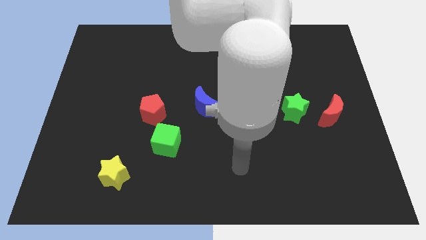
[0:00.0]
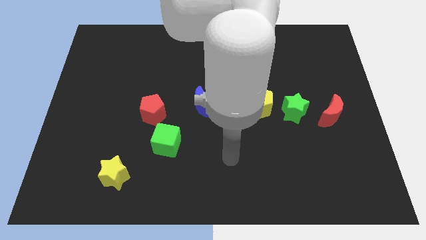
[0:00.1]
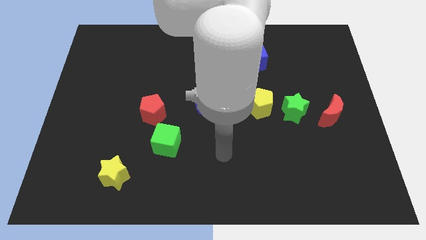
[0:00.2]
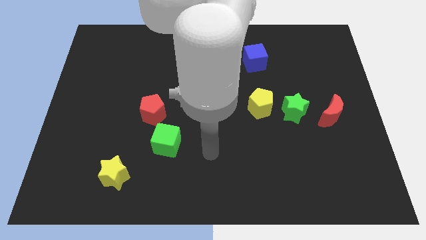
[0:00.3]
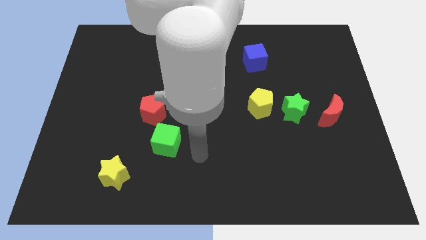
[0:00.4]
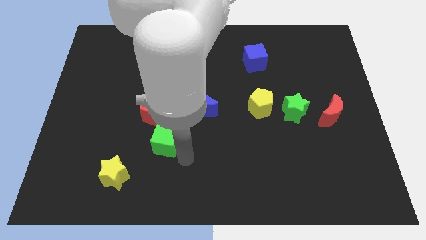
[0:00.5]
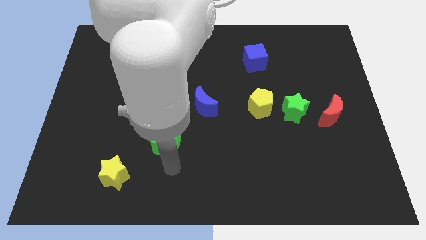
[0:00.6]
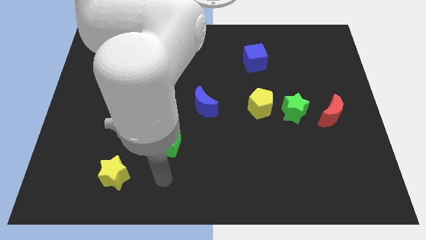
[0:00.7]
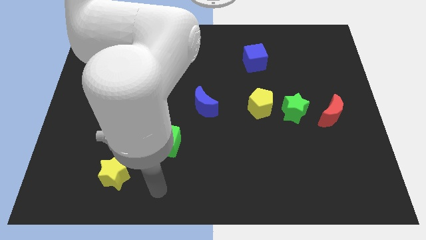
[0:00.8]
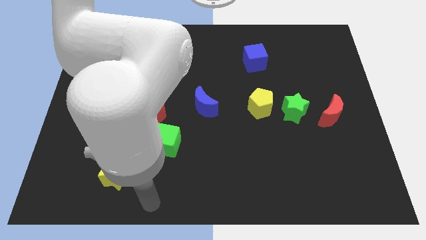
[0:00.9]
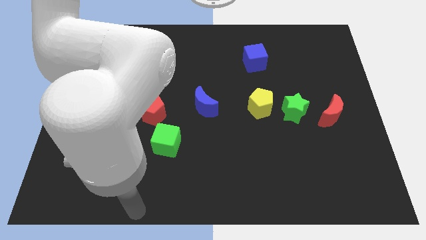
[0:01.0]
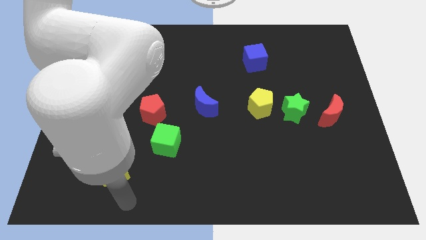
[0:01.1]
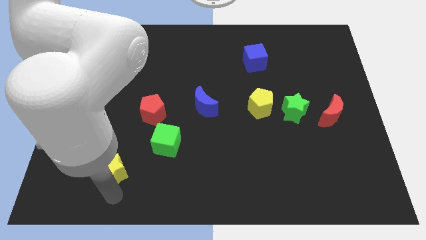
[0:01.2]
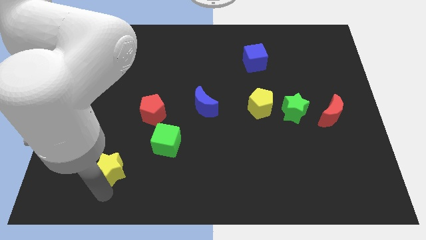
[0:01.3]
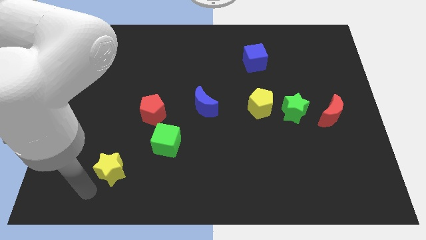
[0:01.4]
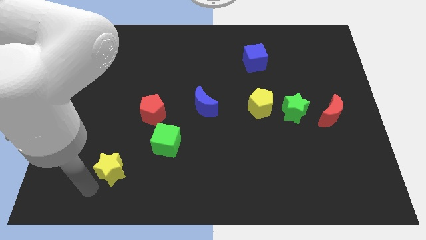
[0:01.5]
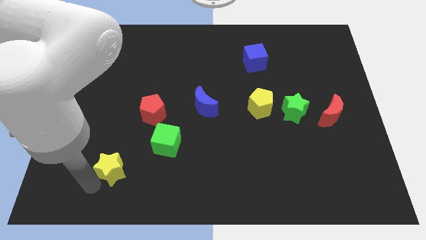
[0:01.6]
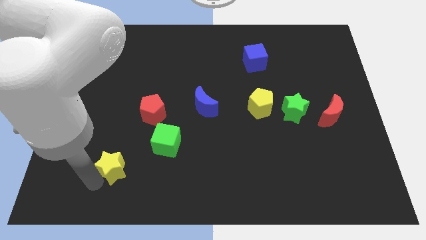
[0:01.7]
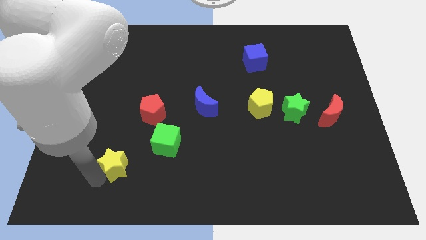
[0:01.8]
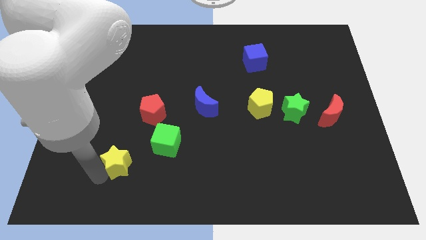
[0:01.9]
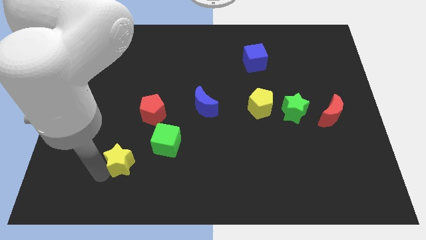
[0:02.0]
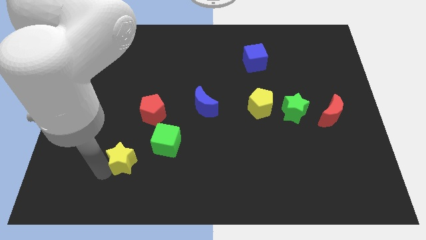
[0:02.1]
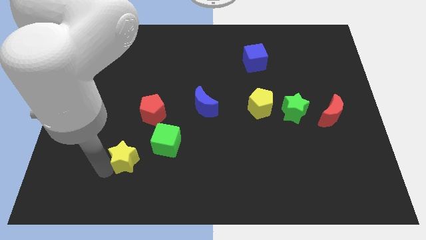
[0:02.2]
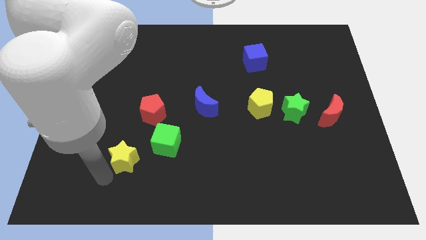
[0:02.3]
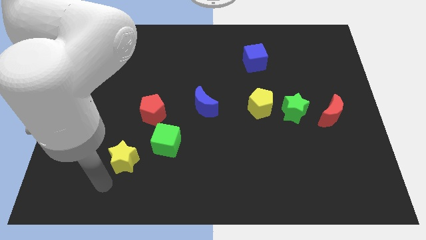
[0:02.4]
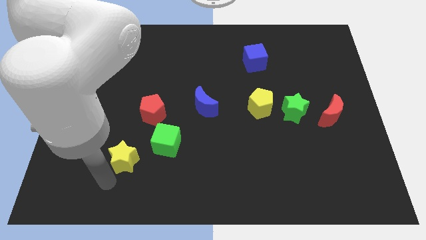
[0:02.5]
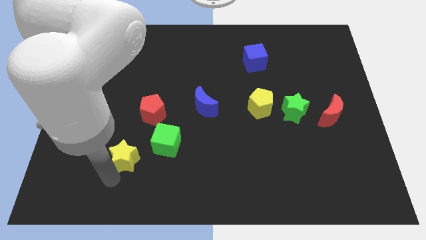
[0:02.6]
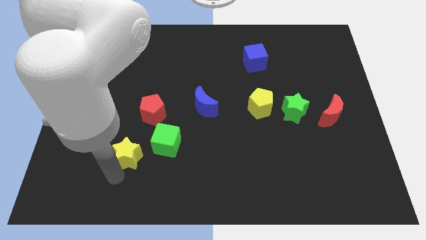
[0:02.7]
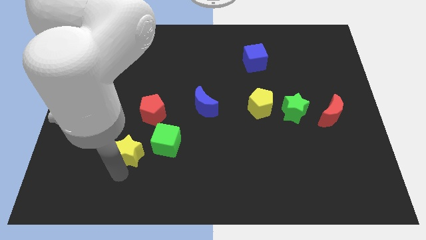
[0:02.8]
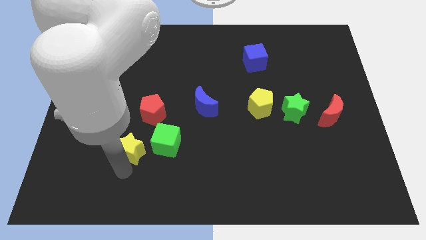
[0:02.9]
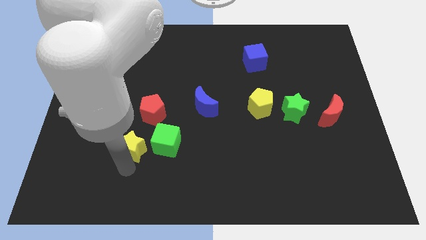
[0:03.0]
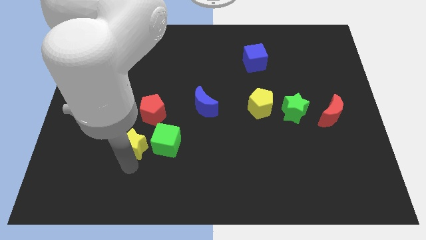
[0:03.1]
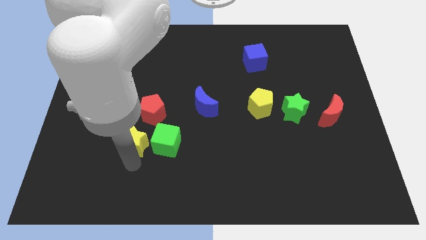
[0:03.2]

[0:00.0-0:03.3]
push the yellow star diagonally up and to the right a little

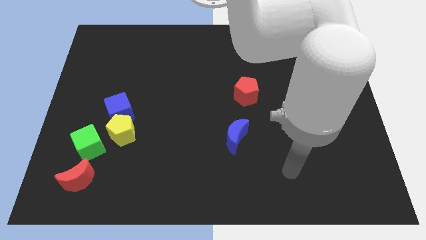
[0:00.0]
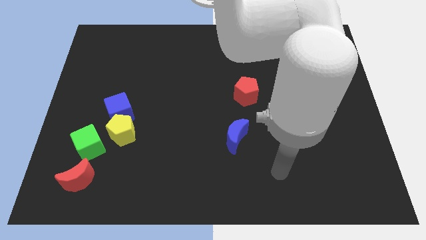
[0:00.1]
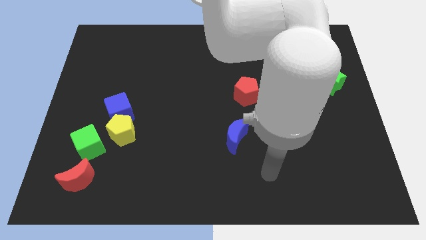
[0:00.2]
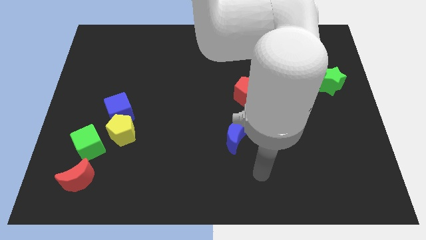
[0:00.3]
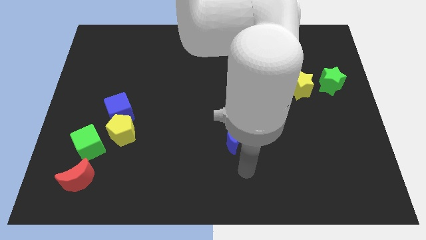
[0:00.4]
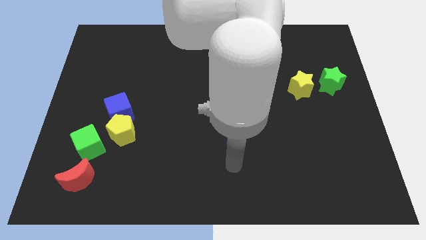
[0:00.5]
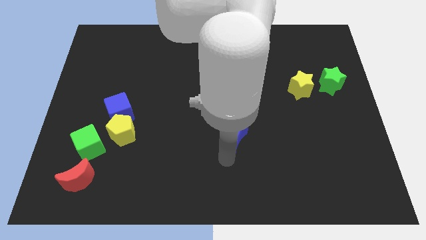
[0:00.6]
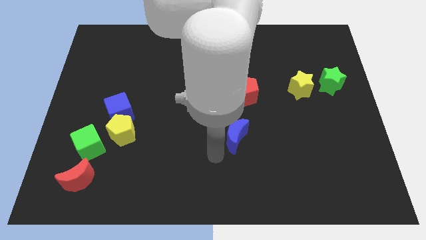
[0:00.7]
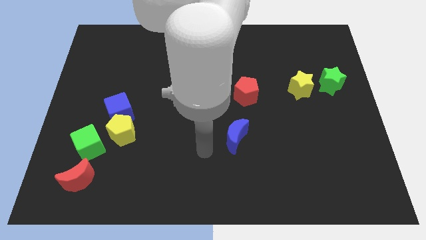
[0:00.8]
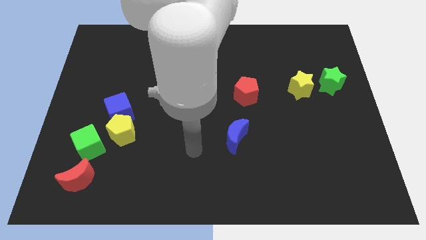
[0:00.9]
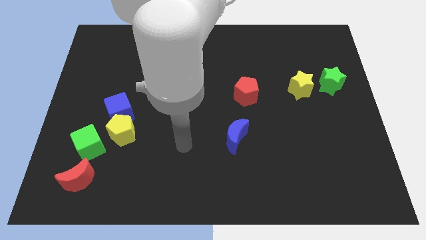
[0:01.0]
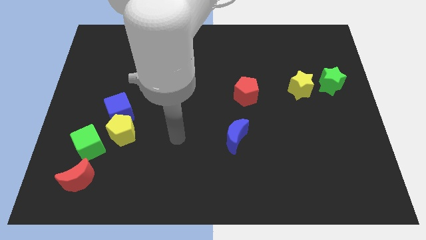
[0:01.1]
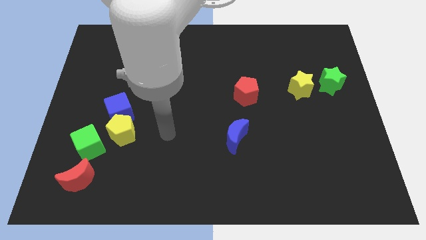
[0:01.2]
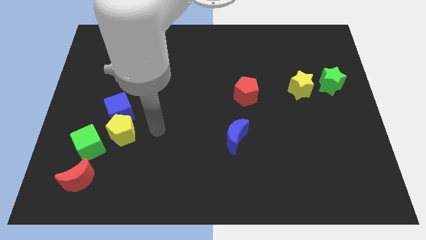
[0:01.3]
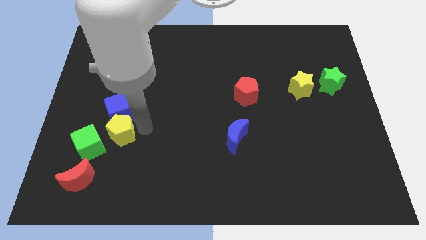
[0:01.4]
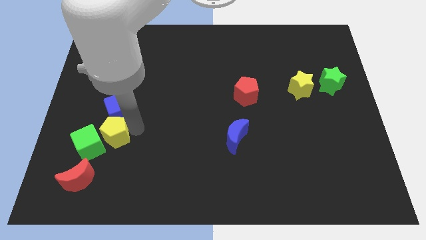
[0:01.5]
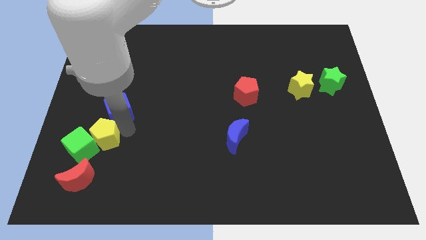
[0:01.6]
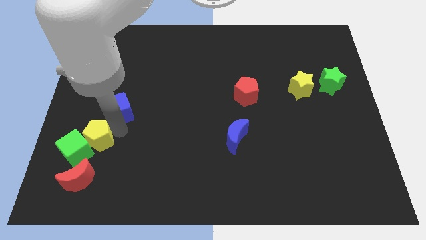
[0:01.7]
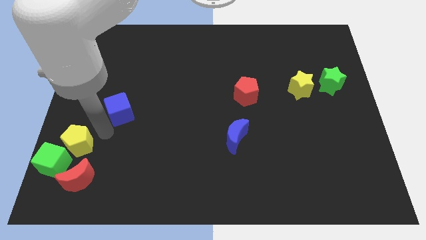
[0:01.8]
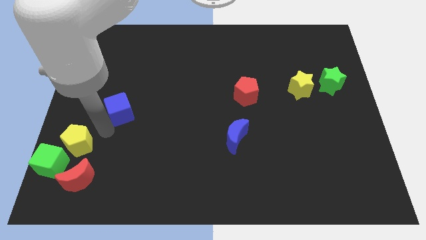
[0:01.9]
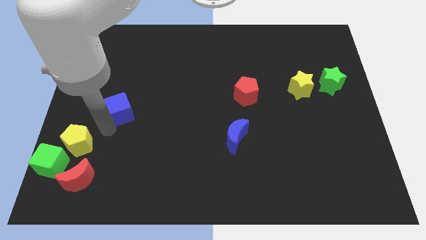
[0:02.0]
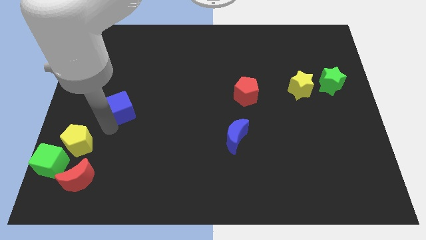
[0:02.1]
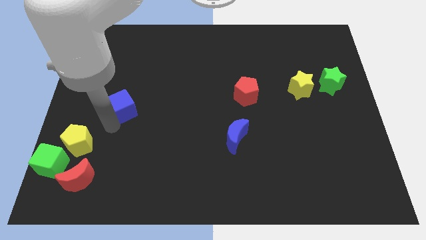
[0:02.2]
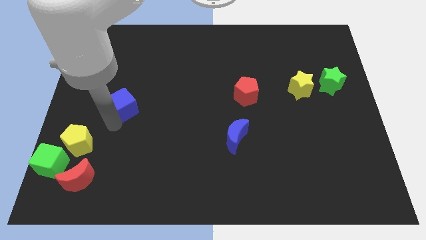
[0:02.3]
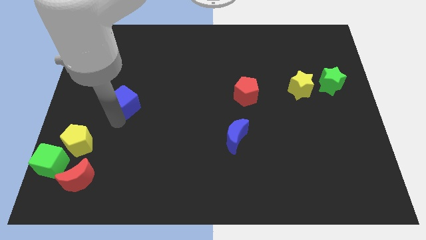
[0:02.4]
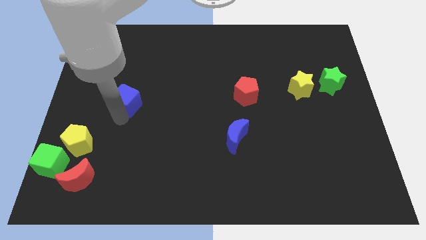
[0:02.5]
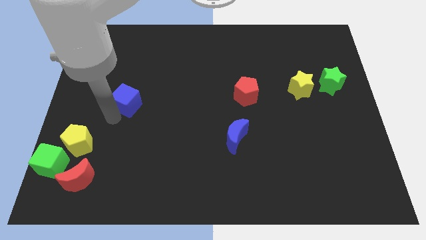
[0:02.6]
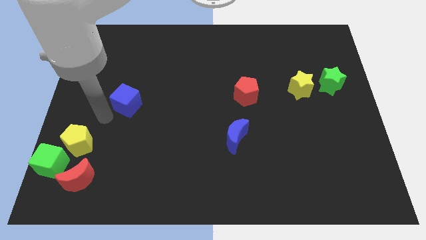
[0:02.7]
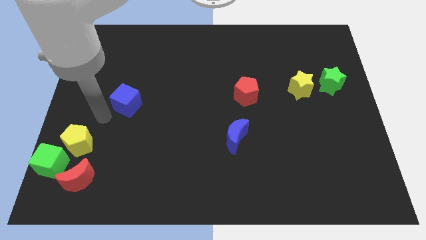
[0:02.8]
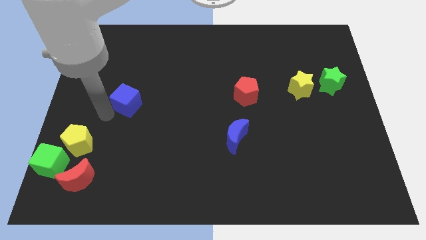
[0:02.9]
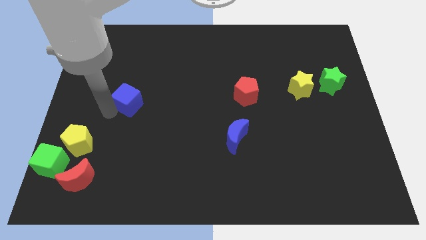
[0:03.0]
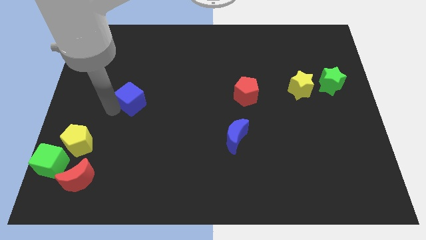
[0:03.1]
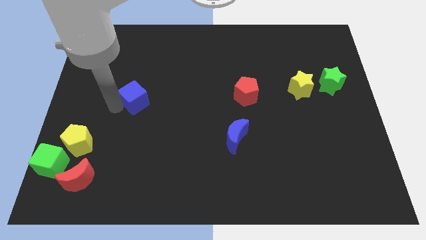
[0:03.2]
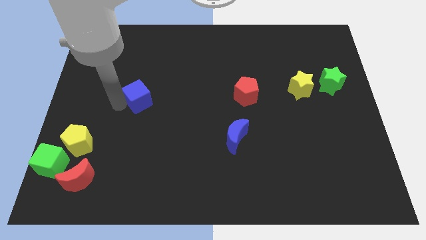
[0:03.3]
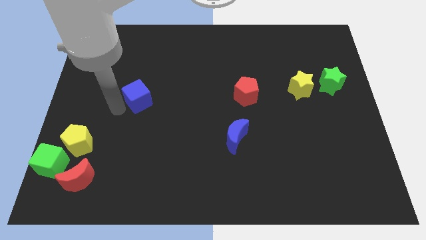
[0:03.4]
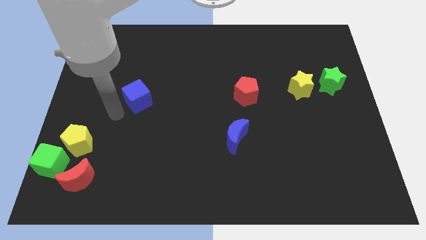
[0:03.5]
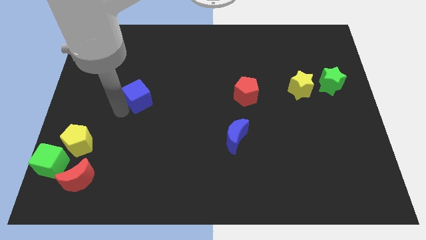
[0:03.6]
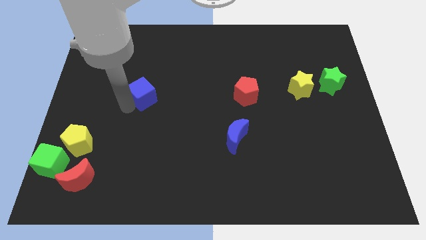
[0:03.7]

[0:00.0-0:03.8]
move the blue cube upwards and then to the right a bit

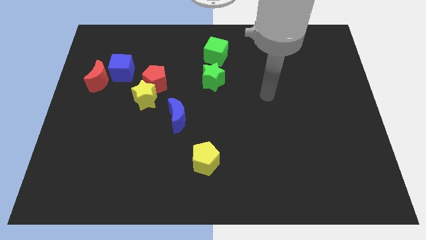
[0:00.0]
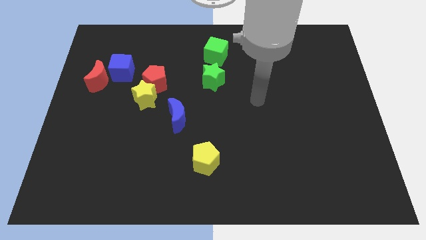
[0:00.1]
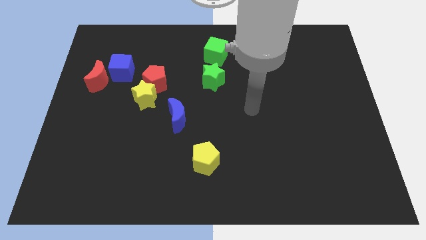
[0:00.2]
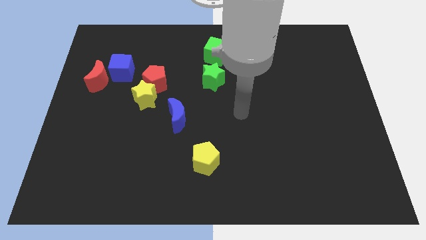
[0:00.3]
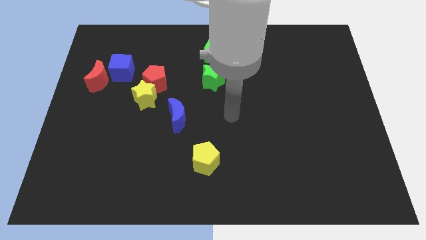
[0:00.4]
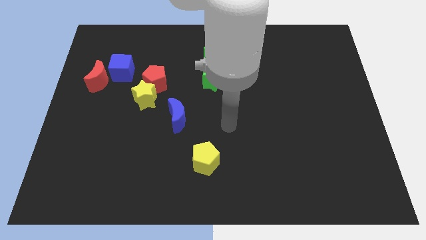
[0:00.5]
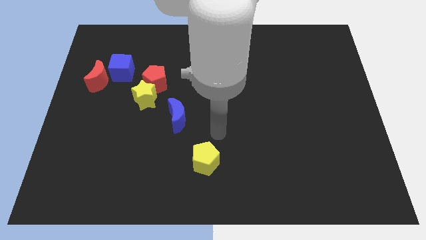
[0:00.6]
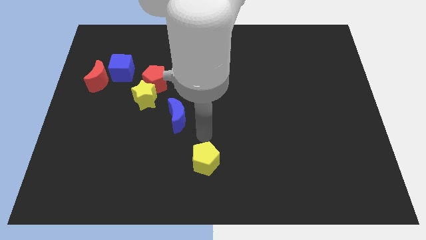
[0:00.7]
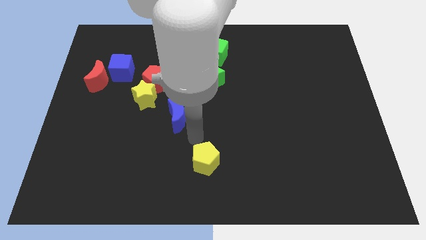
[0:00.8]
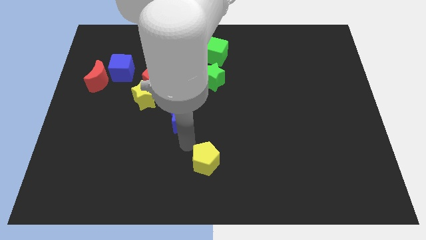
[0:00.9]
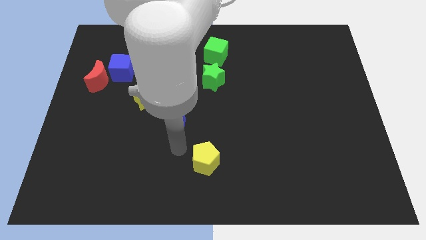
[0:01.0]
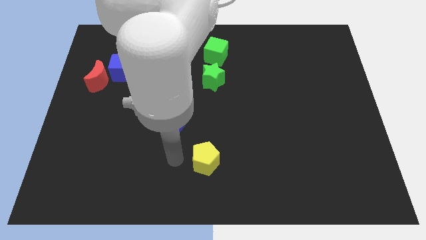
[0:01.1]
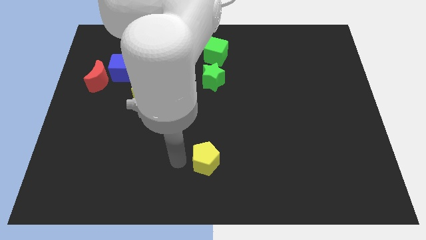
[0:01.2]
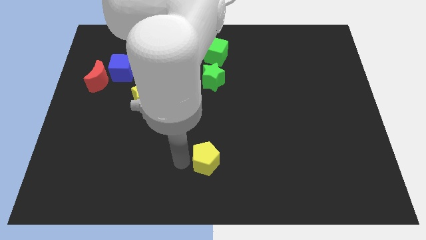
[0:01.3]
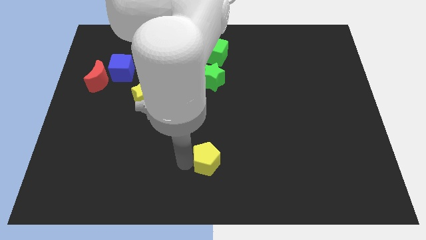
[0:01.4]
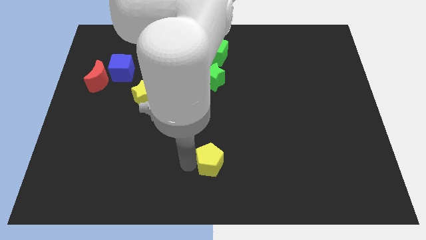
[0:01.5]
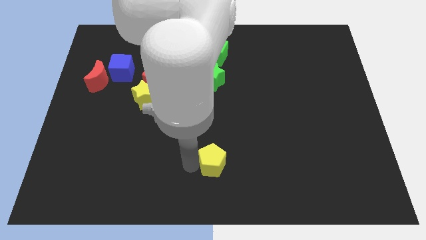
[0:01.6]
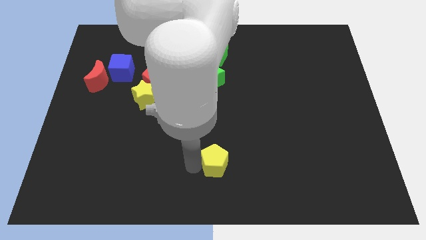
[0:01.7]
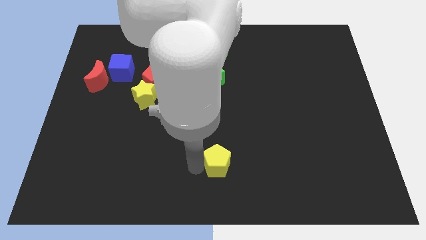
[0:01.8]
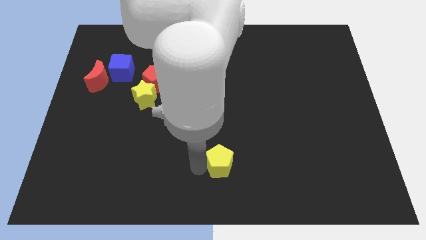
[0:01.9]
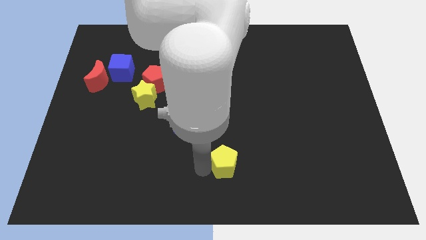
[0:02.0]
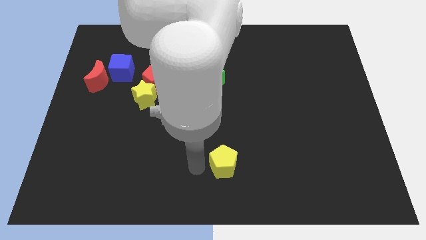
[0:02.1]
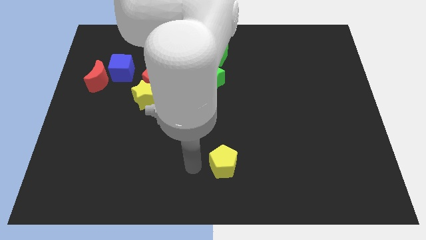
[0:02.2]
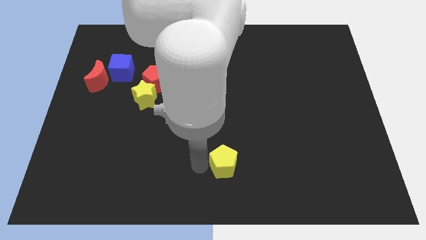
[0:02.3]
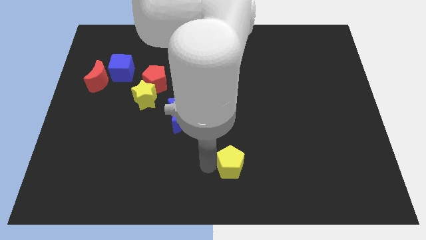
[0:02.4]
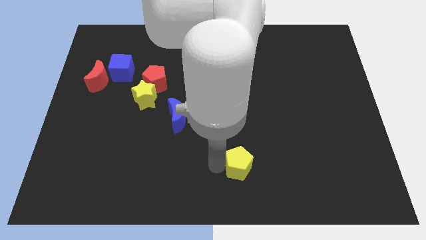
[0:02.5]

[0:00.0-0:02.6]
slightly slide the yellow pentagon to the right
